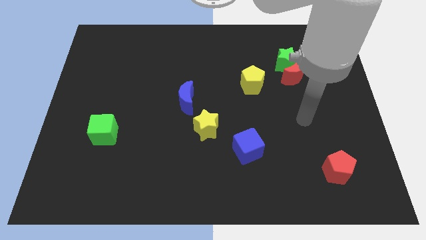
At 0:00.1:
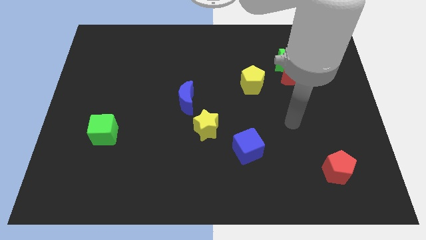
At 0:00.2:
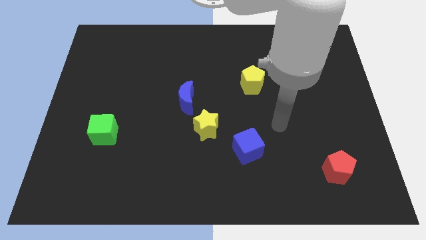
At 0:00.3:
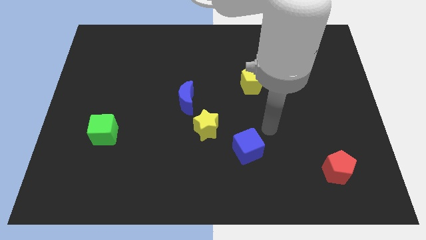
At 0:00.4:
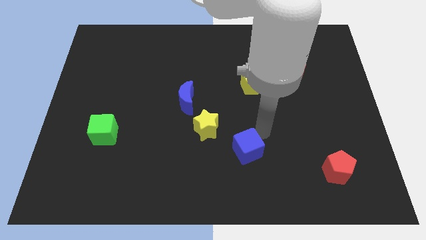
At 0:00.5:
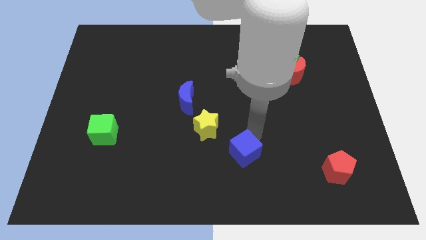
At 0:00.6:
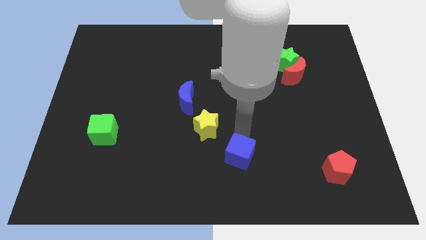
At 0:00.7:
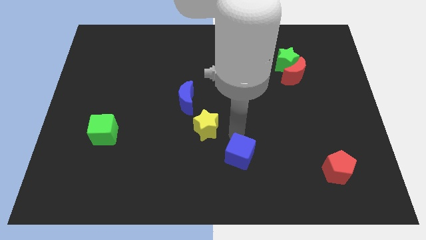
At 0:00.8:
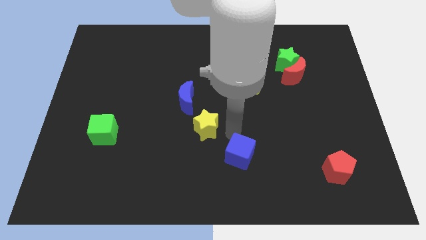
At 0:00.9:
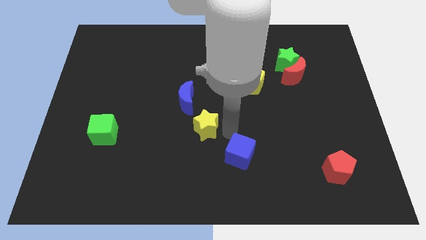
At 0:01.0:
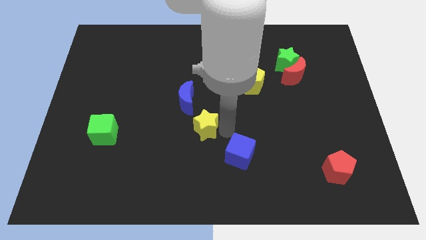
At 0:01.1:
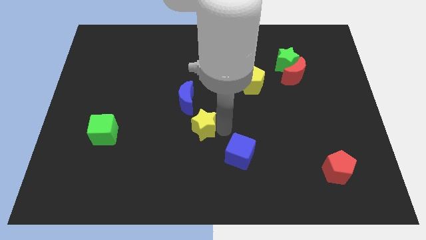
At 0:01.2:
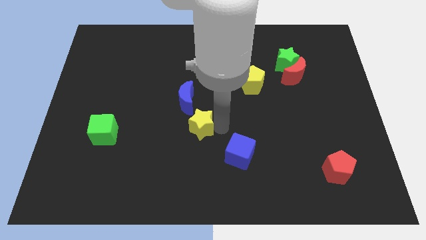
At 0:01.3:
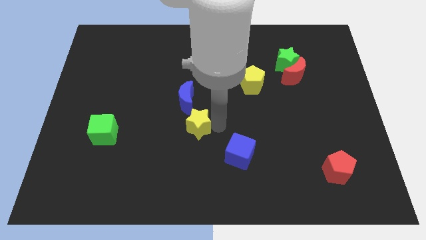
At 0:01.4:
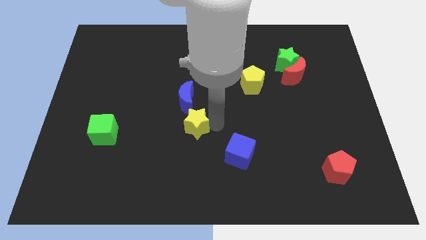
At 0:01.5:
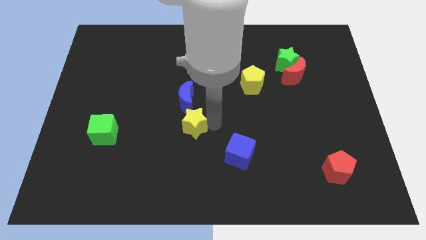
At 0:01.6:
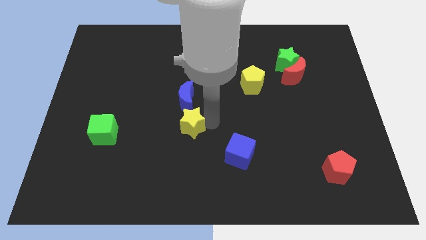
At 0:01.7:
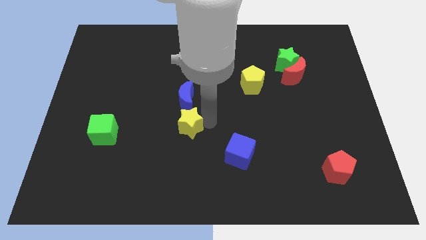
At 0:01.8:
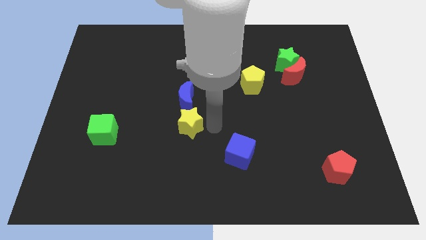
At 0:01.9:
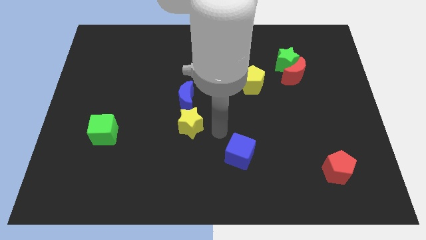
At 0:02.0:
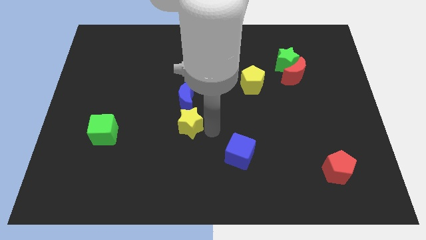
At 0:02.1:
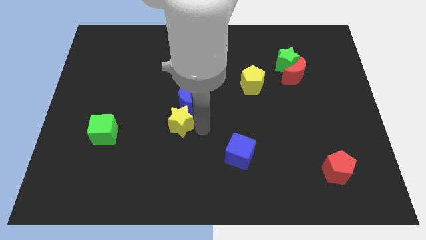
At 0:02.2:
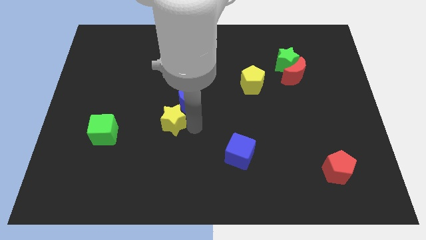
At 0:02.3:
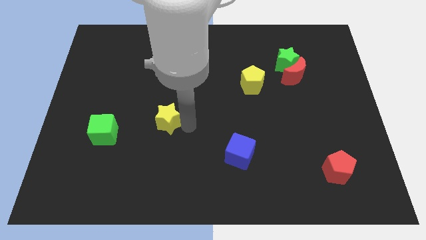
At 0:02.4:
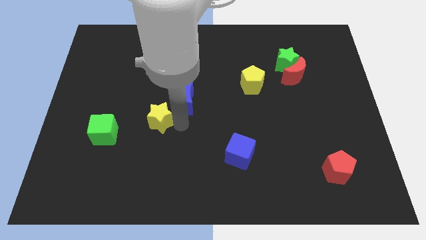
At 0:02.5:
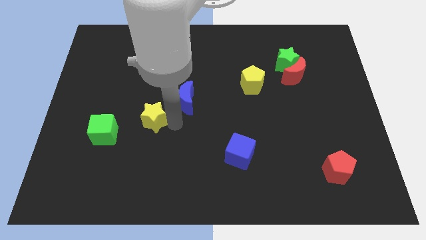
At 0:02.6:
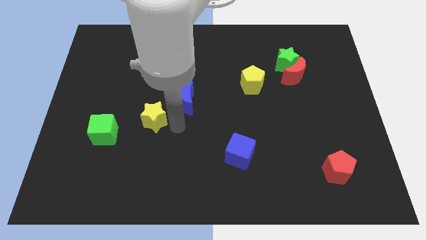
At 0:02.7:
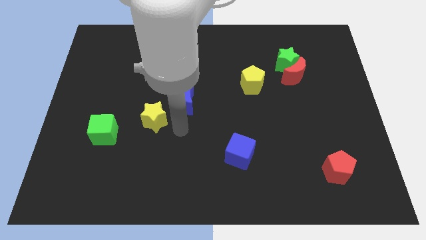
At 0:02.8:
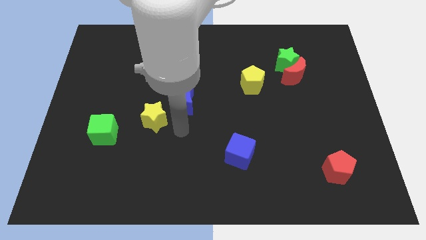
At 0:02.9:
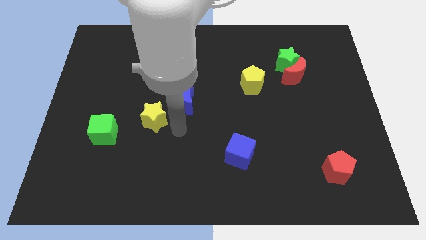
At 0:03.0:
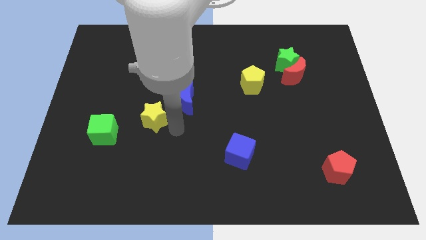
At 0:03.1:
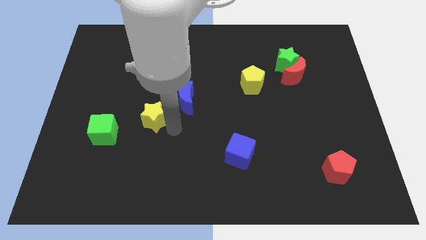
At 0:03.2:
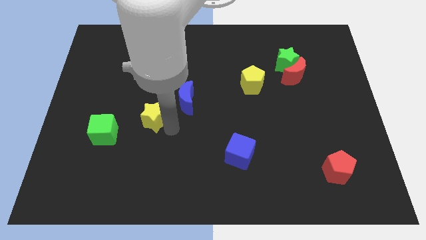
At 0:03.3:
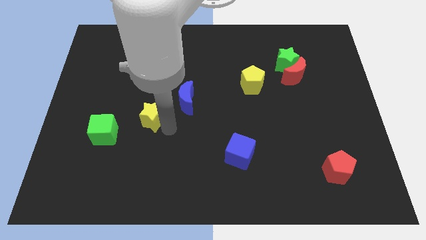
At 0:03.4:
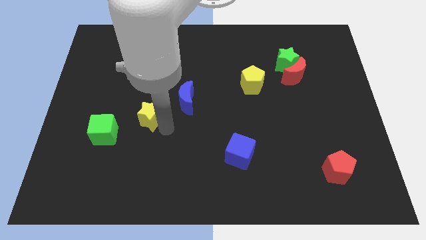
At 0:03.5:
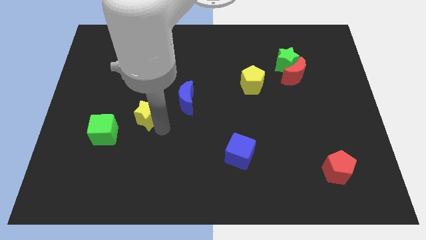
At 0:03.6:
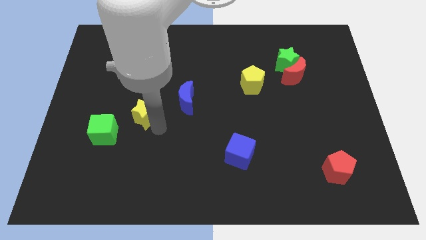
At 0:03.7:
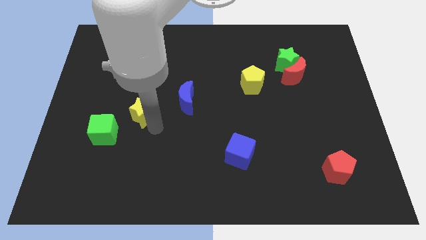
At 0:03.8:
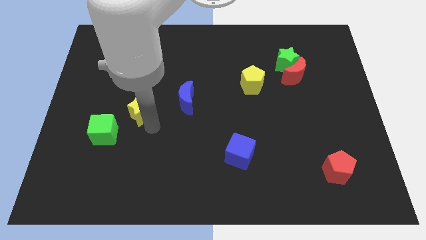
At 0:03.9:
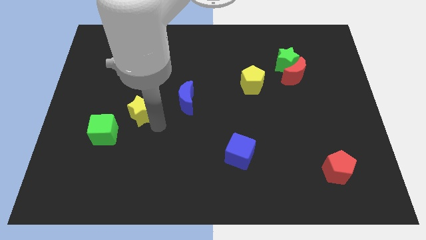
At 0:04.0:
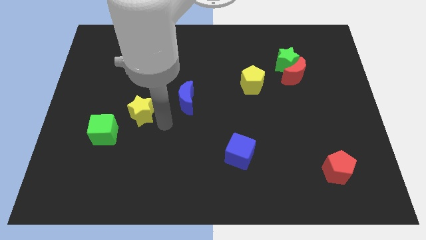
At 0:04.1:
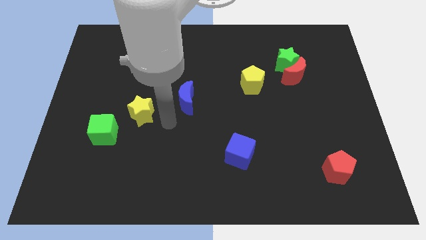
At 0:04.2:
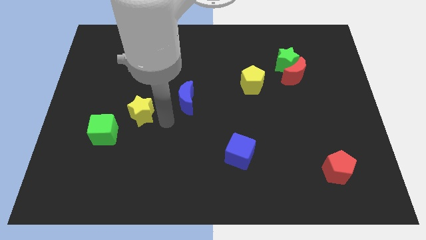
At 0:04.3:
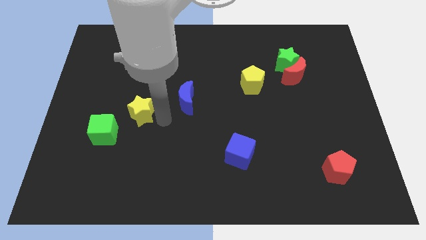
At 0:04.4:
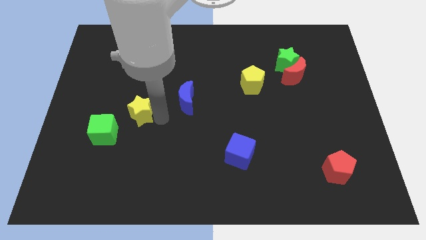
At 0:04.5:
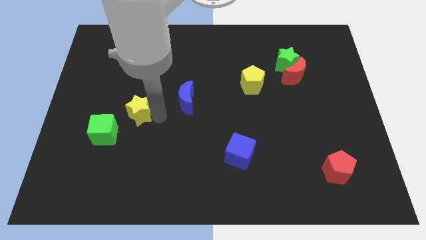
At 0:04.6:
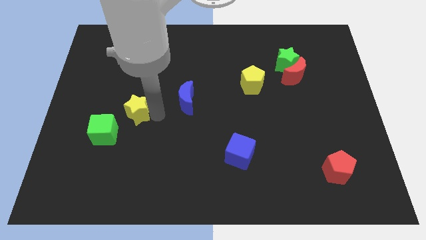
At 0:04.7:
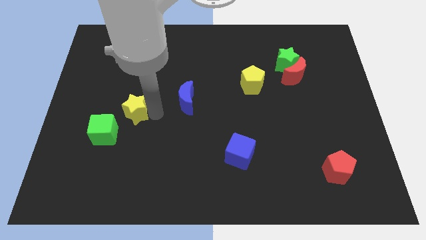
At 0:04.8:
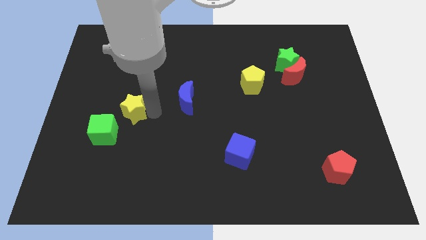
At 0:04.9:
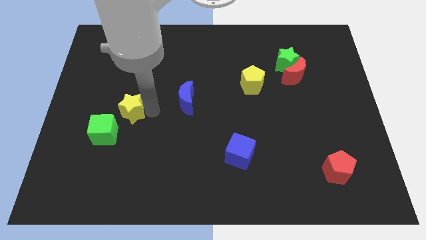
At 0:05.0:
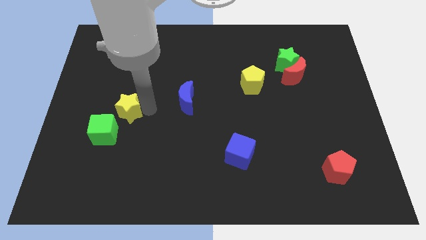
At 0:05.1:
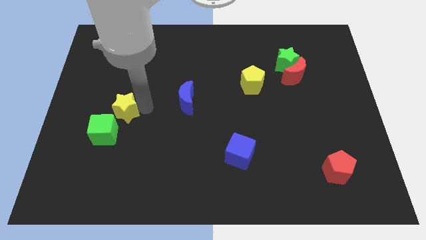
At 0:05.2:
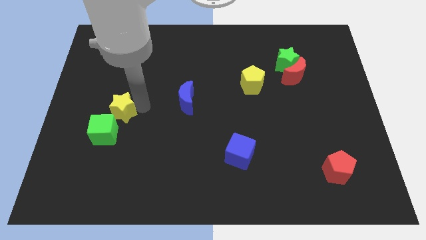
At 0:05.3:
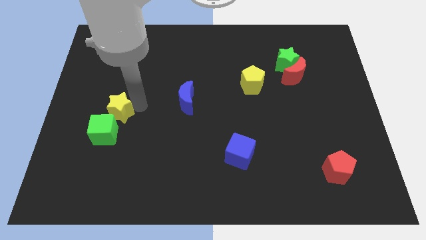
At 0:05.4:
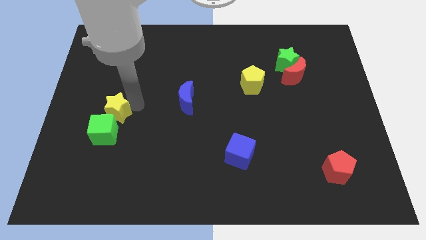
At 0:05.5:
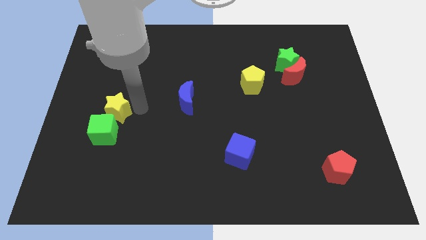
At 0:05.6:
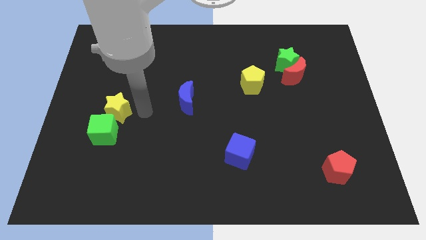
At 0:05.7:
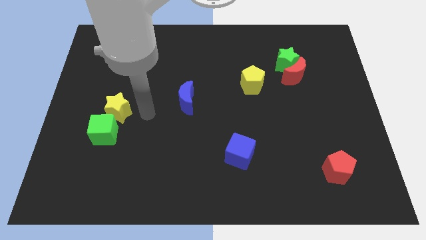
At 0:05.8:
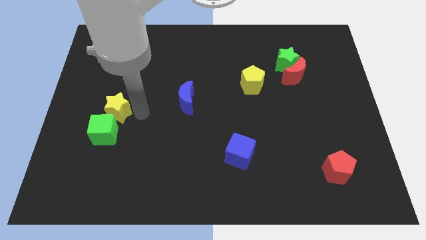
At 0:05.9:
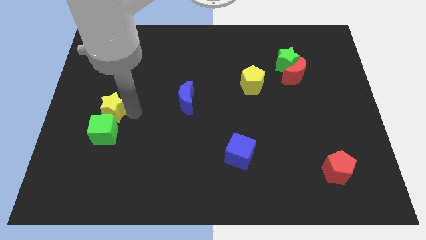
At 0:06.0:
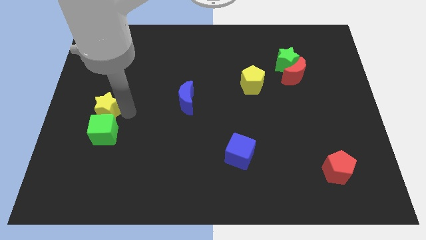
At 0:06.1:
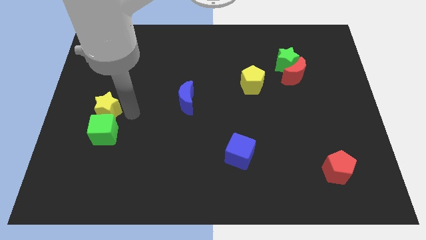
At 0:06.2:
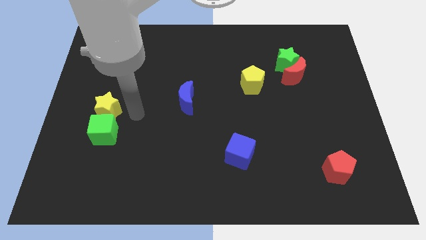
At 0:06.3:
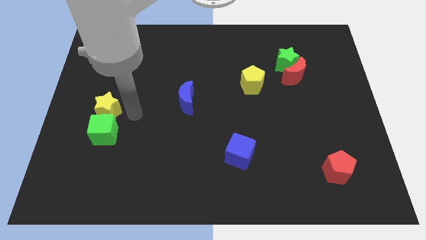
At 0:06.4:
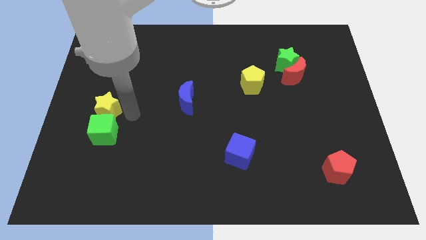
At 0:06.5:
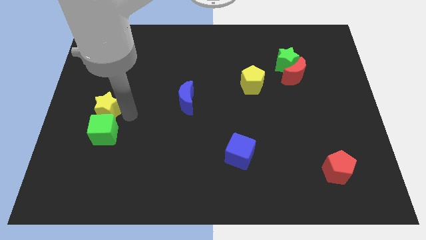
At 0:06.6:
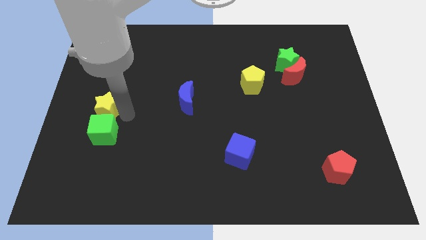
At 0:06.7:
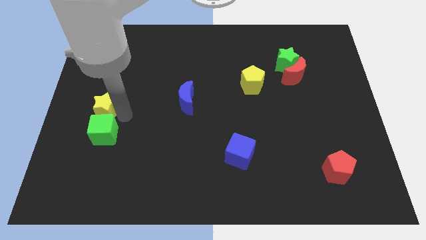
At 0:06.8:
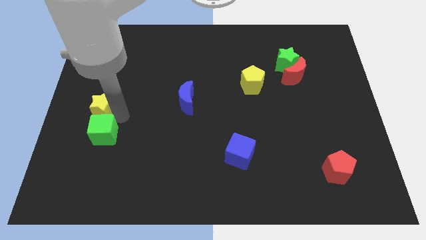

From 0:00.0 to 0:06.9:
push the yellow star to the left side of the board

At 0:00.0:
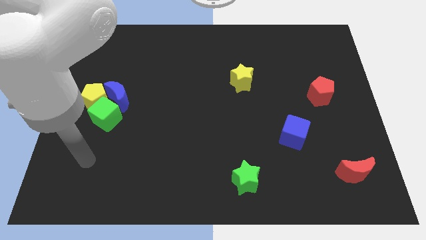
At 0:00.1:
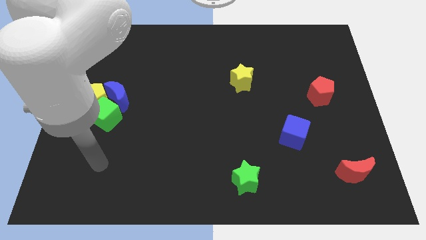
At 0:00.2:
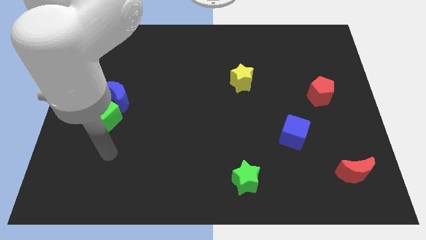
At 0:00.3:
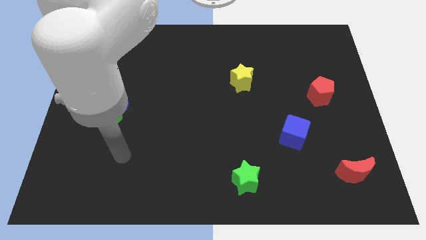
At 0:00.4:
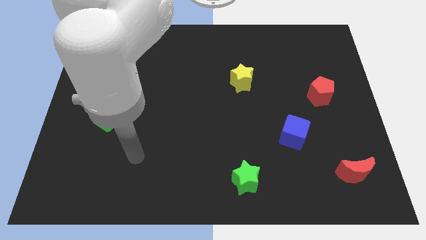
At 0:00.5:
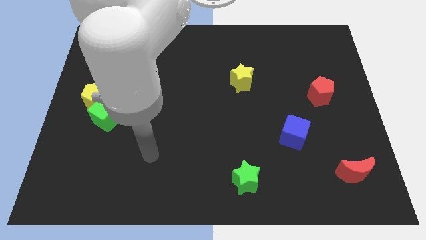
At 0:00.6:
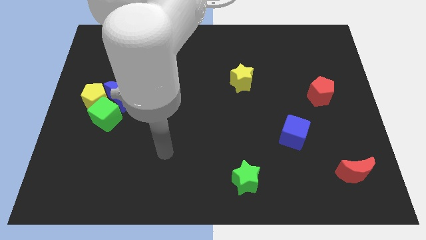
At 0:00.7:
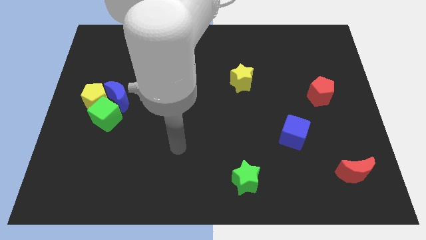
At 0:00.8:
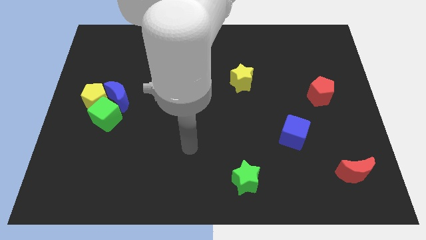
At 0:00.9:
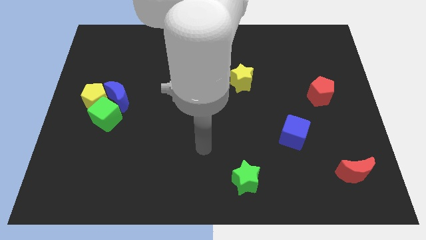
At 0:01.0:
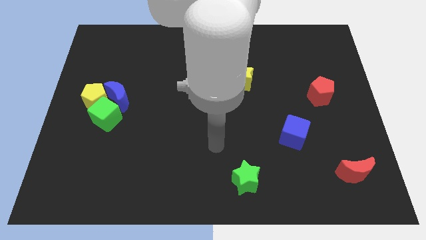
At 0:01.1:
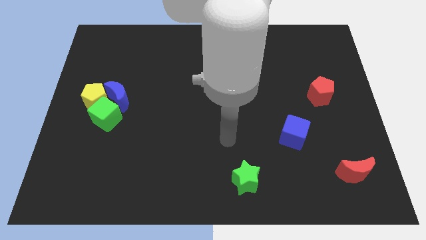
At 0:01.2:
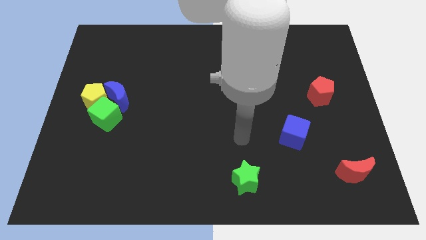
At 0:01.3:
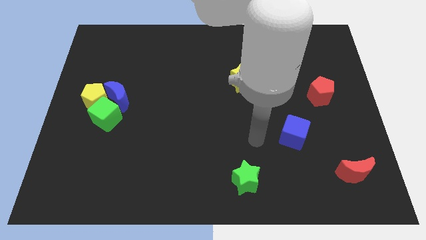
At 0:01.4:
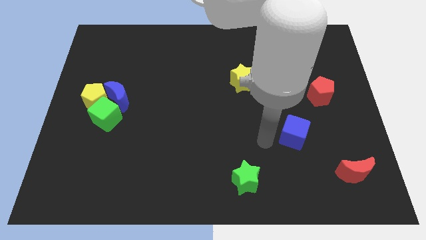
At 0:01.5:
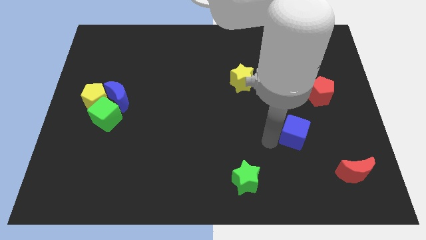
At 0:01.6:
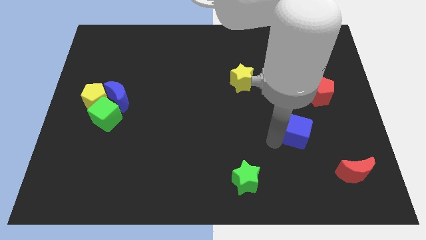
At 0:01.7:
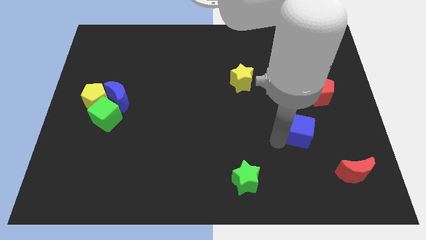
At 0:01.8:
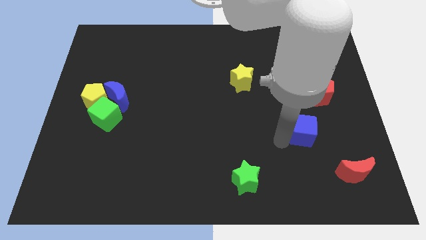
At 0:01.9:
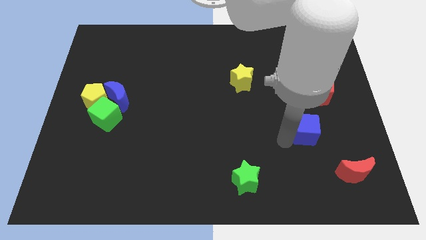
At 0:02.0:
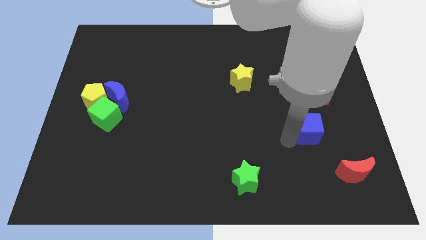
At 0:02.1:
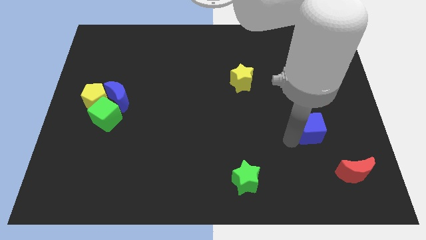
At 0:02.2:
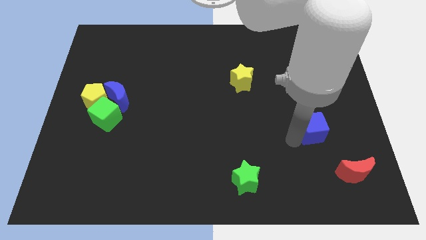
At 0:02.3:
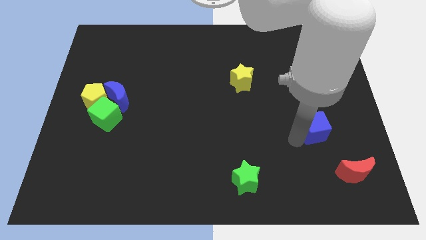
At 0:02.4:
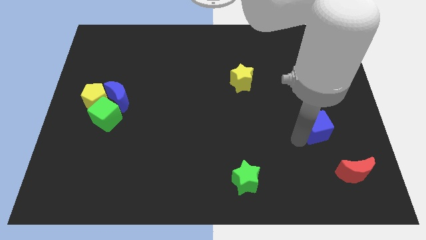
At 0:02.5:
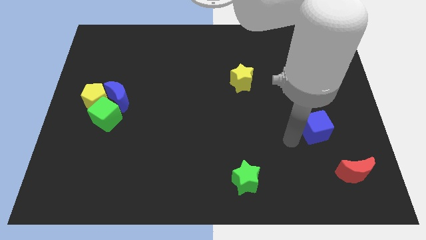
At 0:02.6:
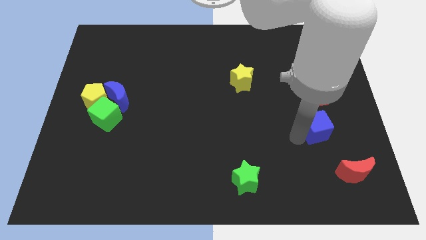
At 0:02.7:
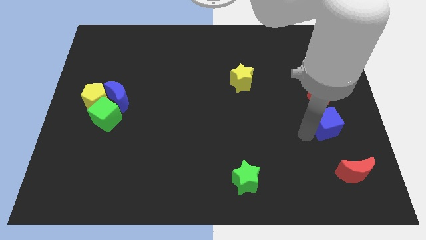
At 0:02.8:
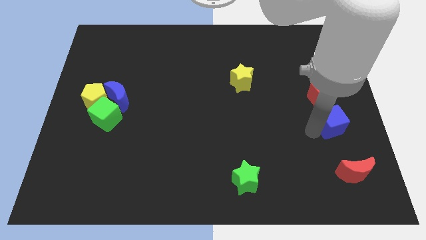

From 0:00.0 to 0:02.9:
slide the blue cube to the center right
